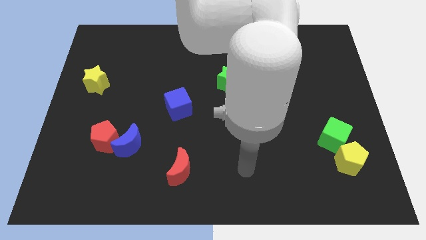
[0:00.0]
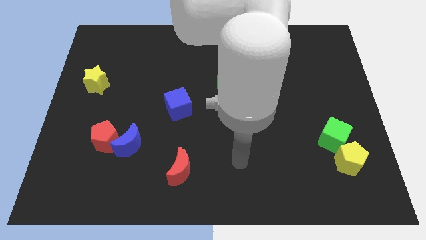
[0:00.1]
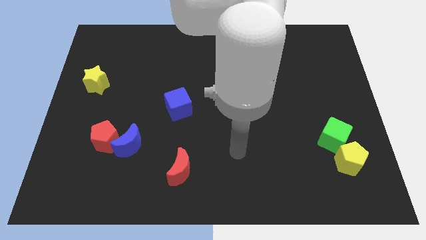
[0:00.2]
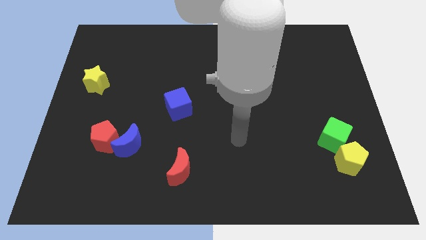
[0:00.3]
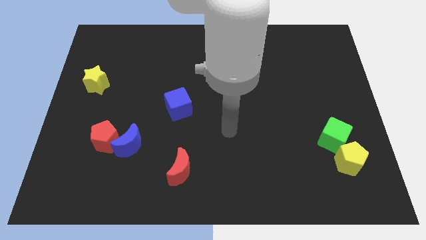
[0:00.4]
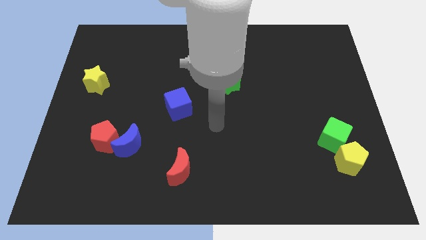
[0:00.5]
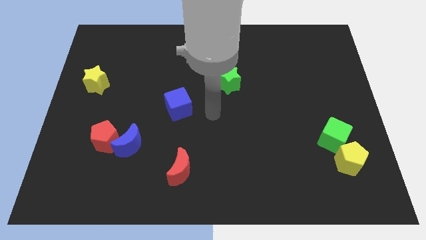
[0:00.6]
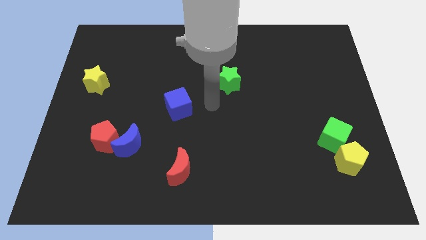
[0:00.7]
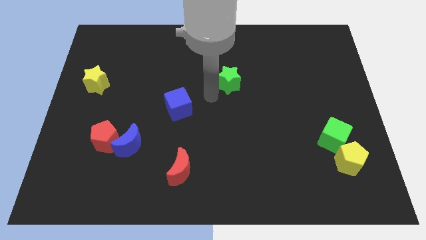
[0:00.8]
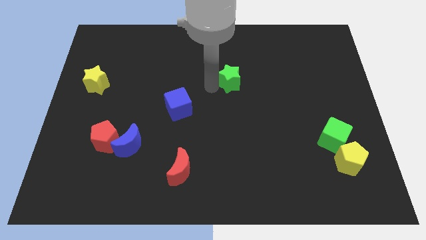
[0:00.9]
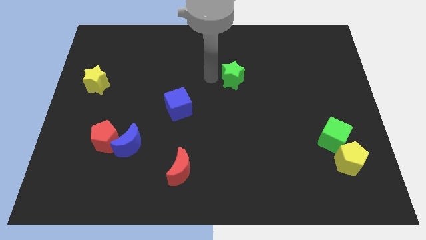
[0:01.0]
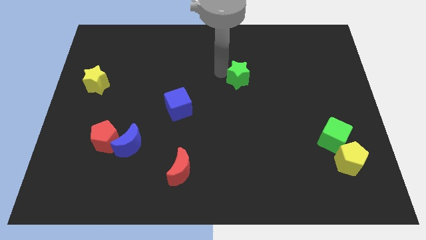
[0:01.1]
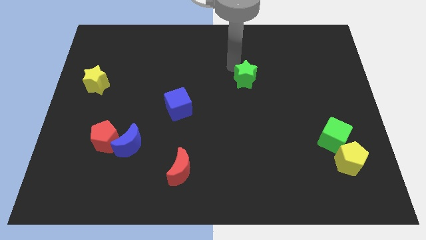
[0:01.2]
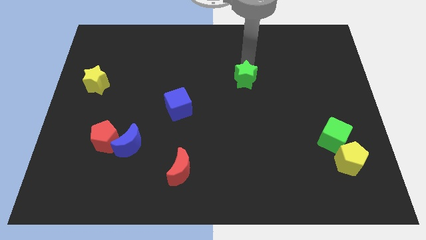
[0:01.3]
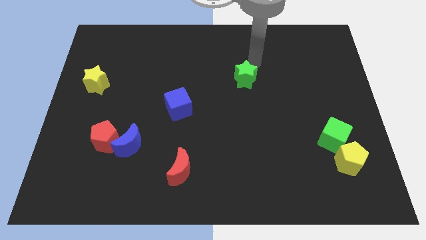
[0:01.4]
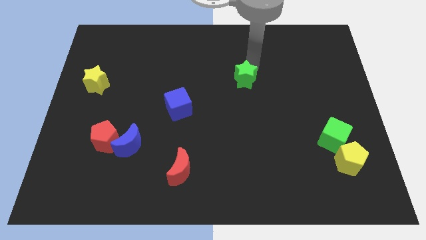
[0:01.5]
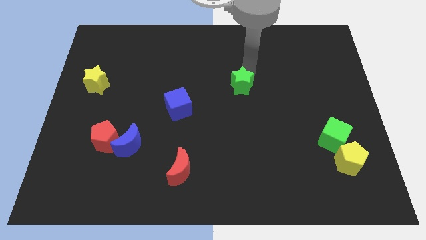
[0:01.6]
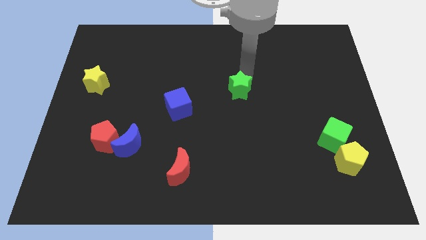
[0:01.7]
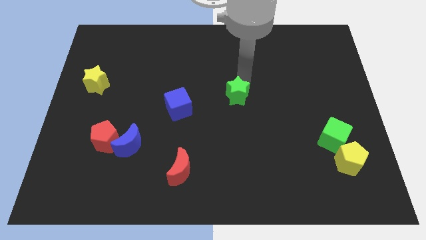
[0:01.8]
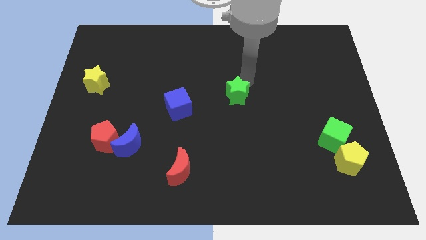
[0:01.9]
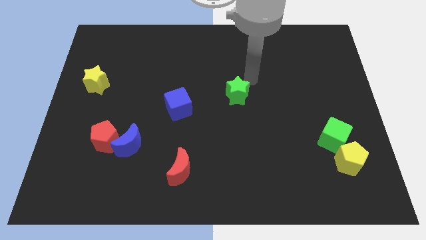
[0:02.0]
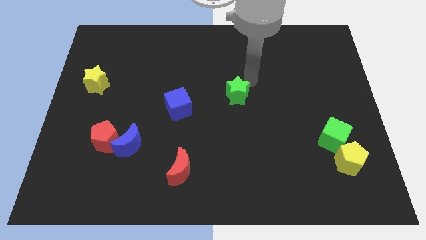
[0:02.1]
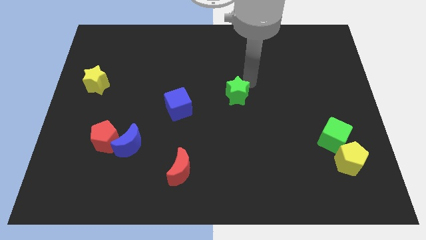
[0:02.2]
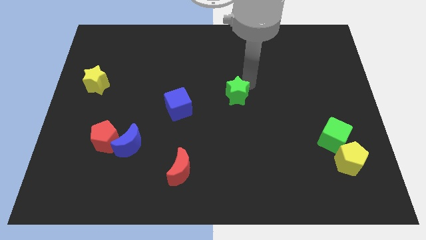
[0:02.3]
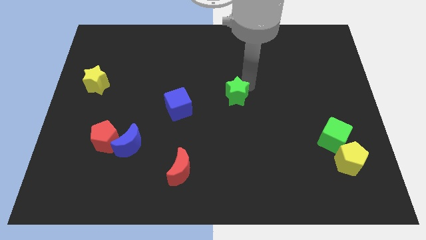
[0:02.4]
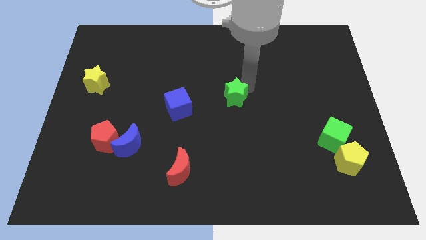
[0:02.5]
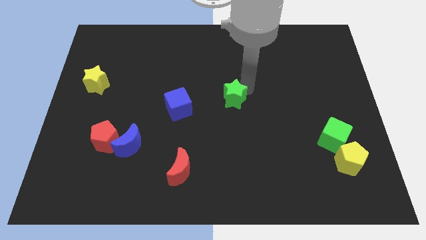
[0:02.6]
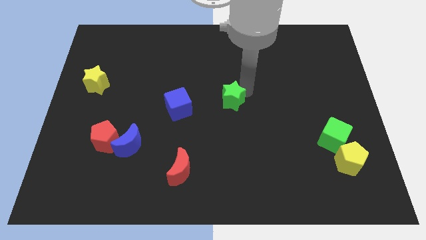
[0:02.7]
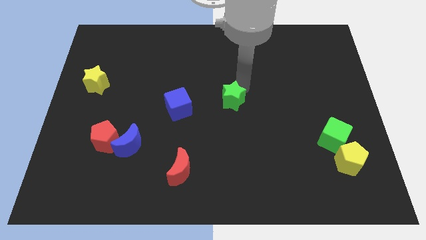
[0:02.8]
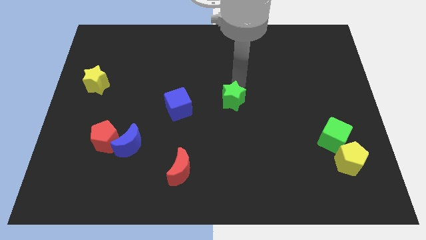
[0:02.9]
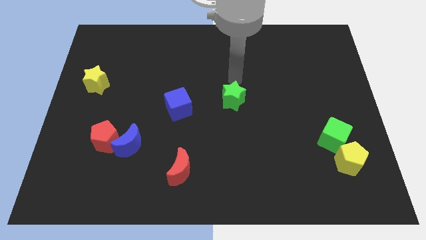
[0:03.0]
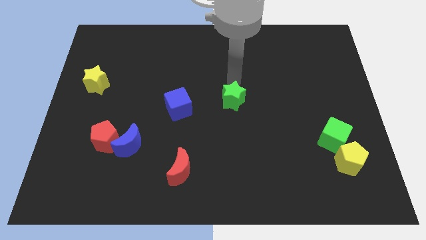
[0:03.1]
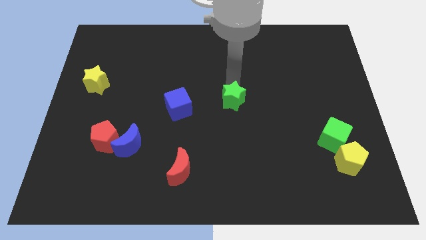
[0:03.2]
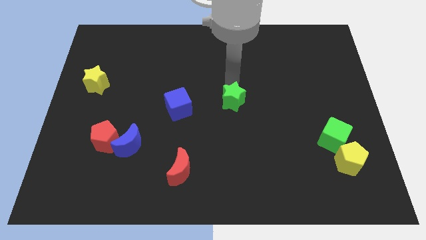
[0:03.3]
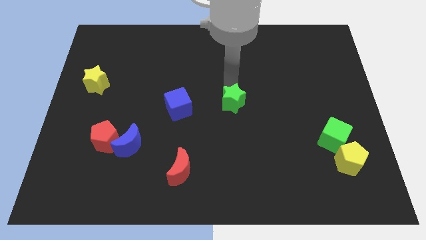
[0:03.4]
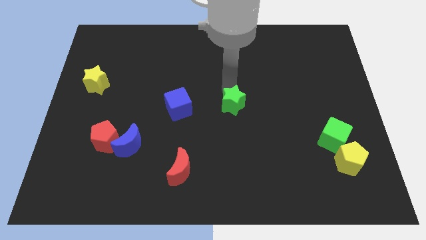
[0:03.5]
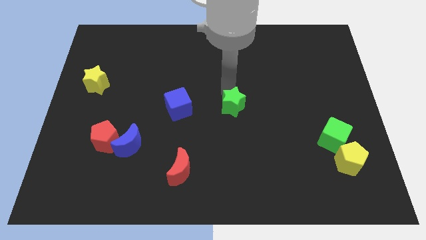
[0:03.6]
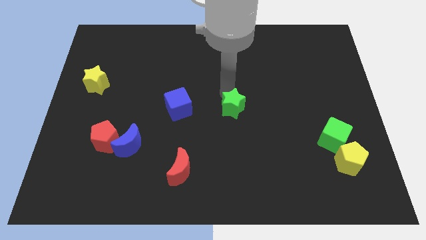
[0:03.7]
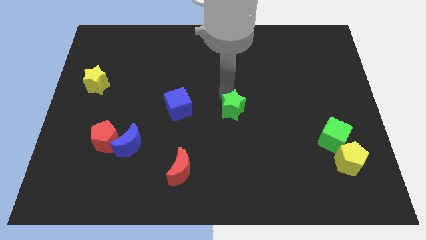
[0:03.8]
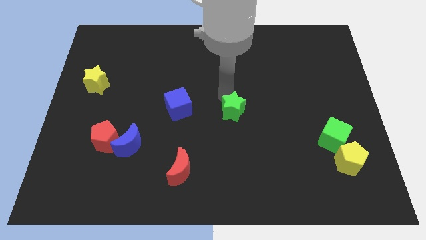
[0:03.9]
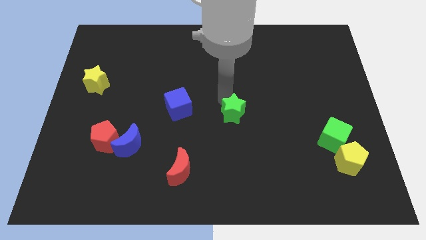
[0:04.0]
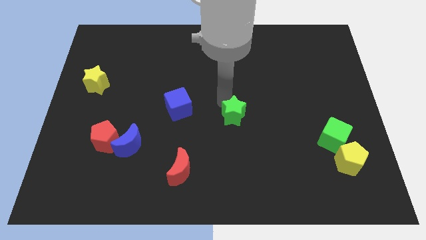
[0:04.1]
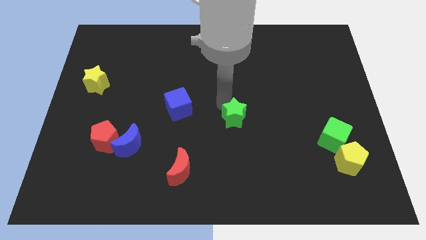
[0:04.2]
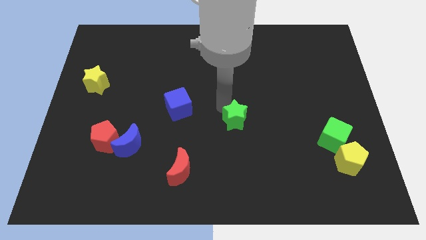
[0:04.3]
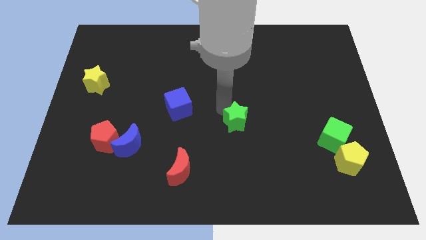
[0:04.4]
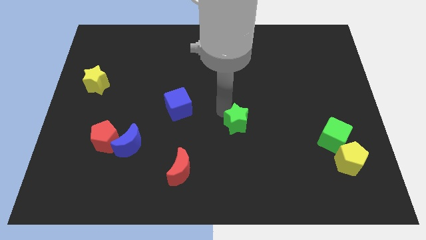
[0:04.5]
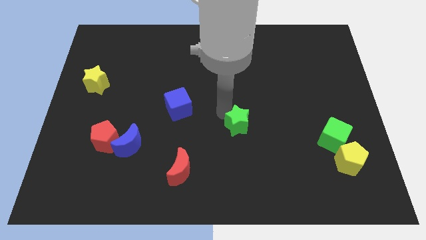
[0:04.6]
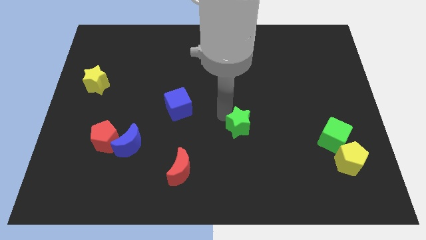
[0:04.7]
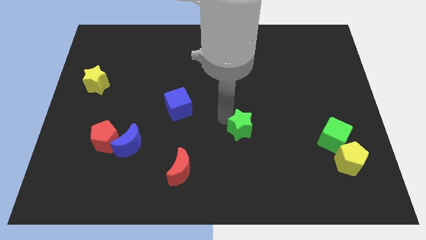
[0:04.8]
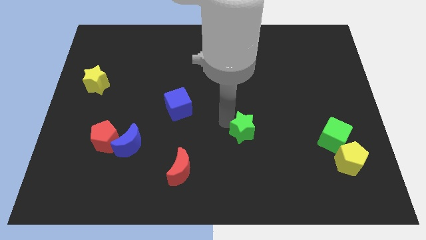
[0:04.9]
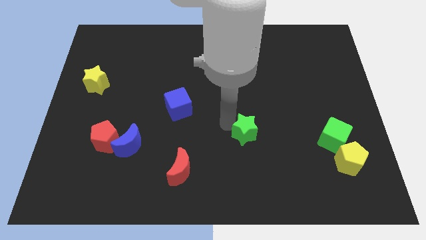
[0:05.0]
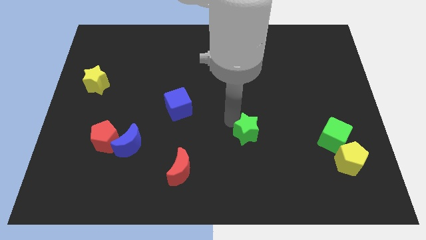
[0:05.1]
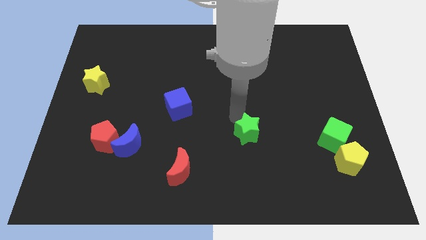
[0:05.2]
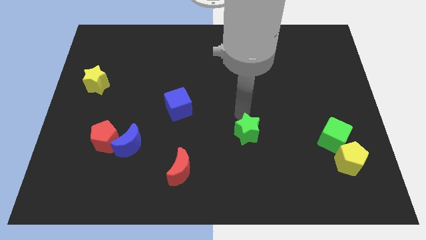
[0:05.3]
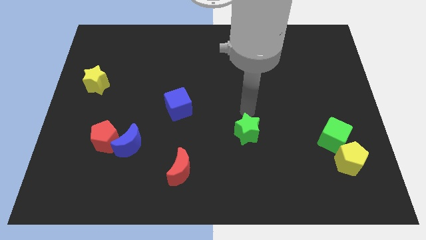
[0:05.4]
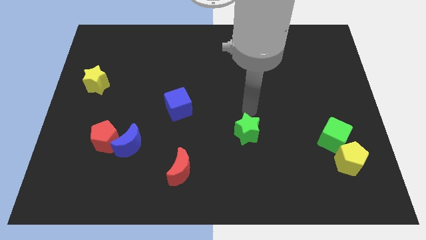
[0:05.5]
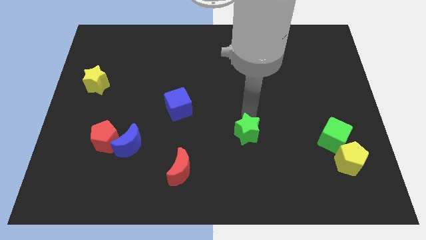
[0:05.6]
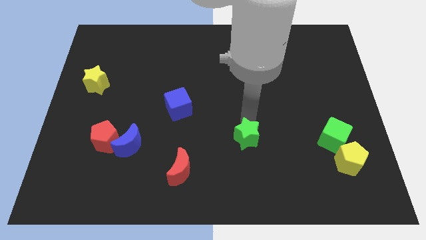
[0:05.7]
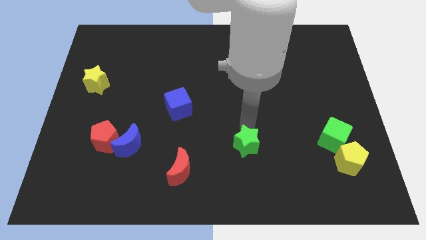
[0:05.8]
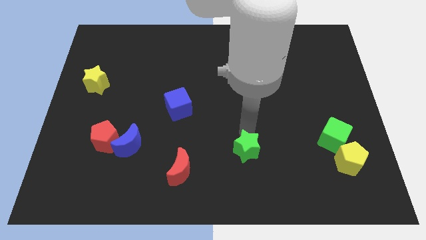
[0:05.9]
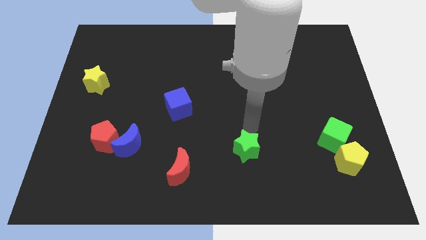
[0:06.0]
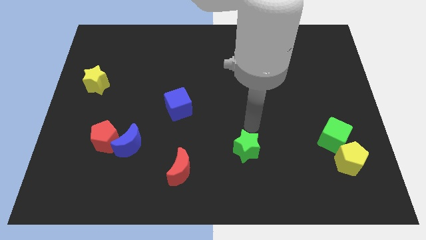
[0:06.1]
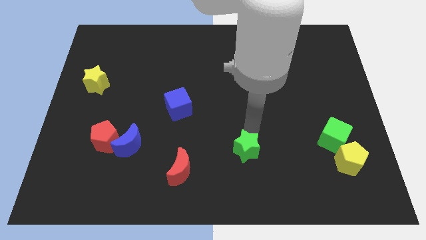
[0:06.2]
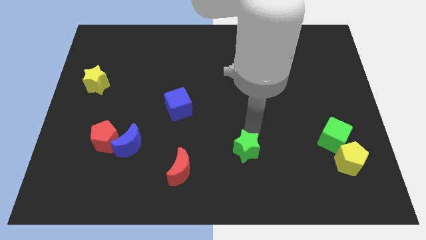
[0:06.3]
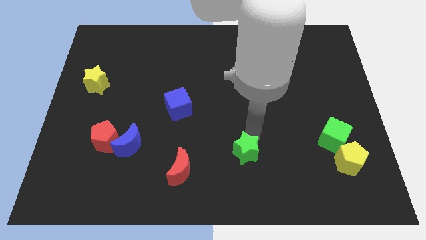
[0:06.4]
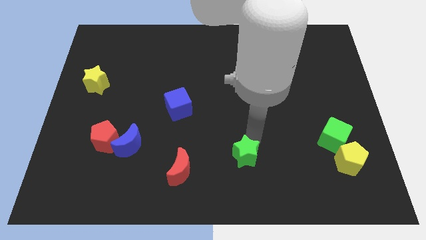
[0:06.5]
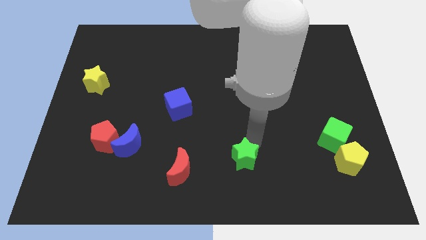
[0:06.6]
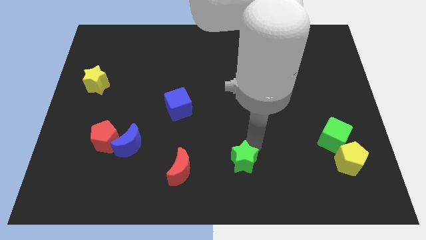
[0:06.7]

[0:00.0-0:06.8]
move the green star to the bottom side

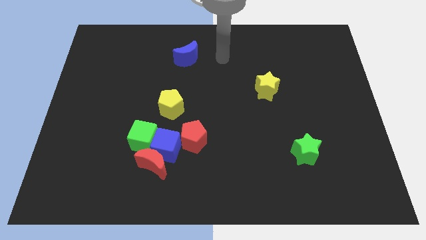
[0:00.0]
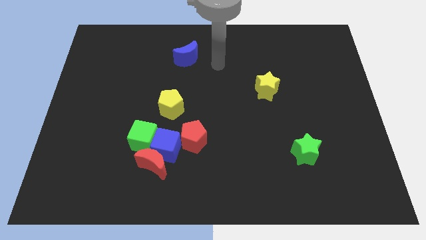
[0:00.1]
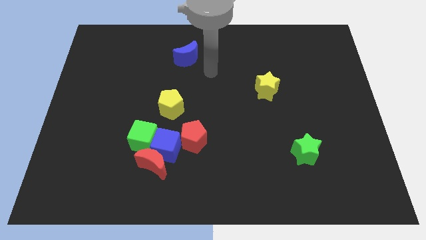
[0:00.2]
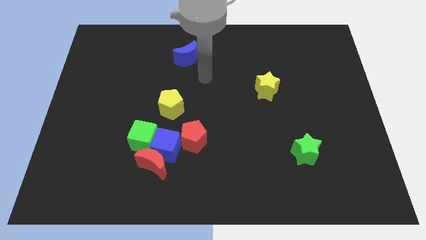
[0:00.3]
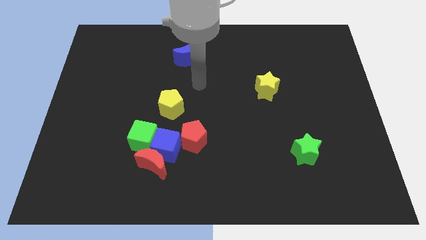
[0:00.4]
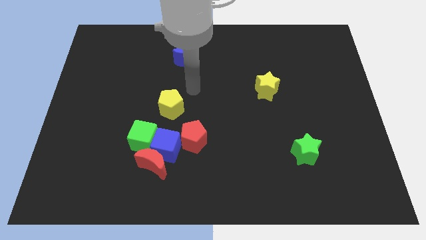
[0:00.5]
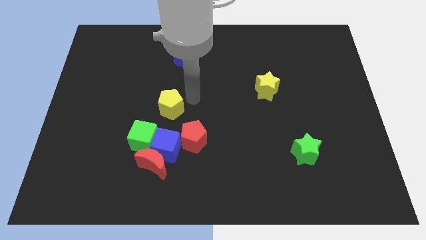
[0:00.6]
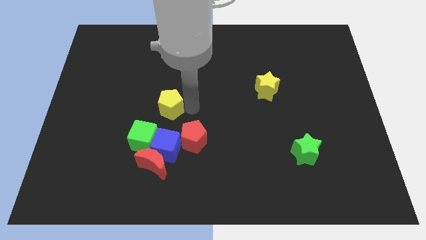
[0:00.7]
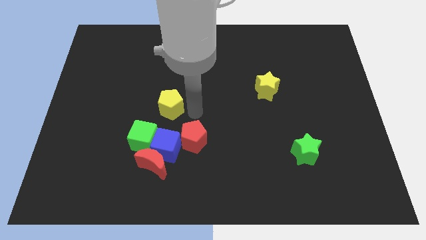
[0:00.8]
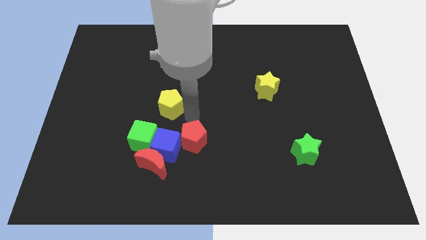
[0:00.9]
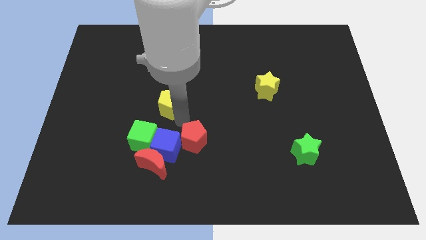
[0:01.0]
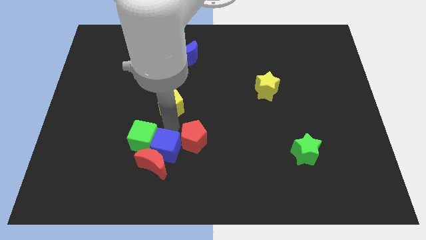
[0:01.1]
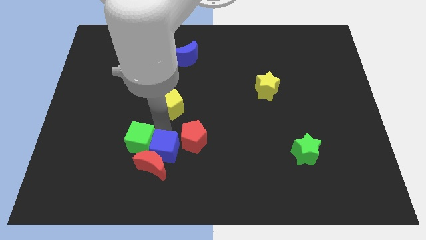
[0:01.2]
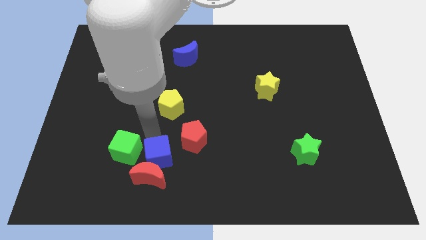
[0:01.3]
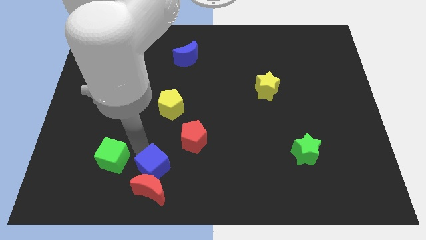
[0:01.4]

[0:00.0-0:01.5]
put the red moon to the bottom
